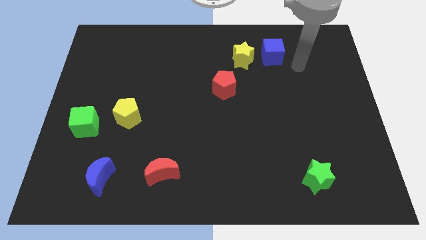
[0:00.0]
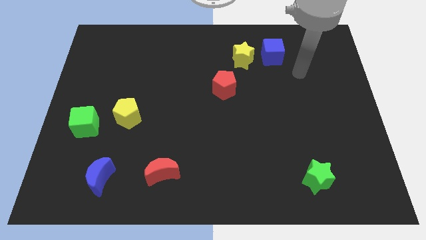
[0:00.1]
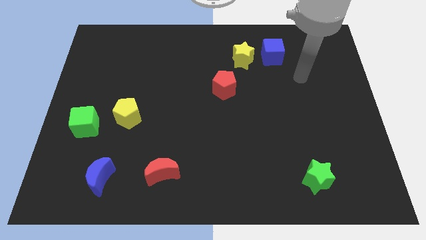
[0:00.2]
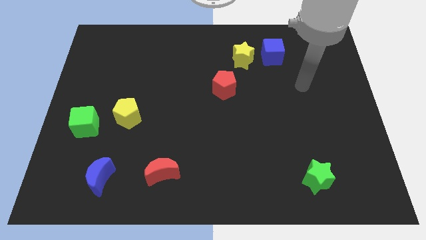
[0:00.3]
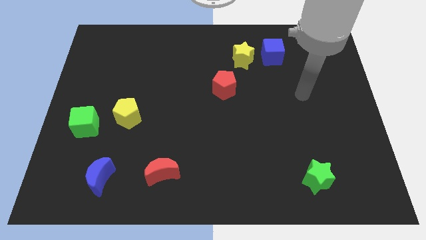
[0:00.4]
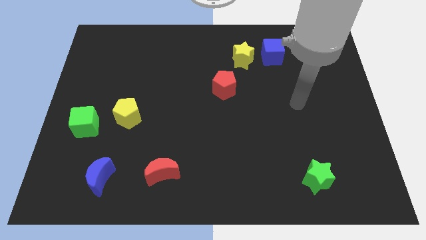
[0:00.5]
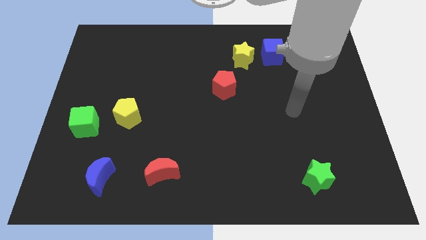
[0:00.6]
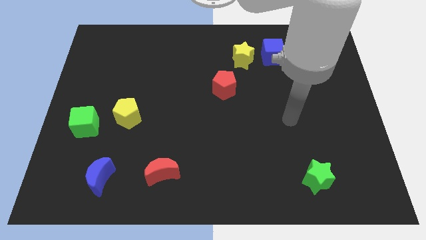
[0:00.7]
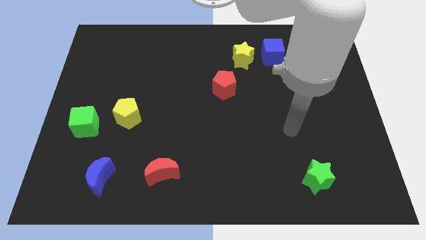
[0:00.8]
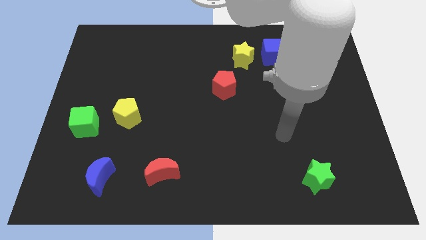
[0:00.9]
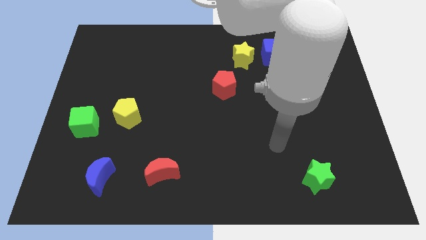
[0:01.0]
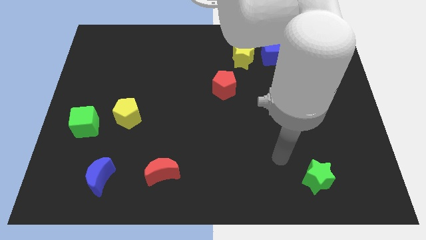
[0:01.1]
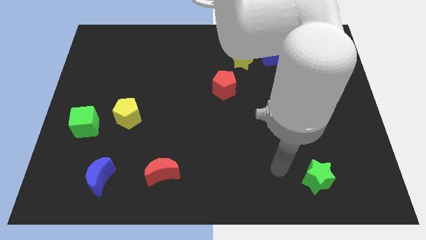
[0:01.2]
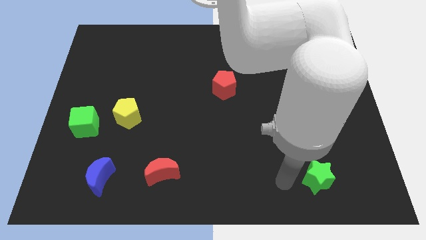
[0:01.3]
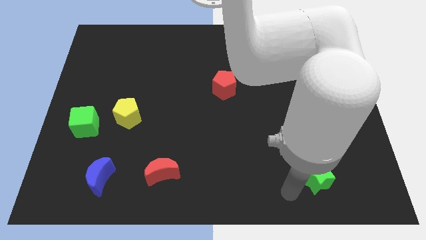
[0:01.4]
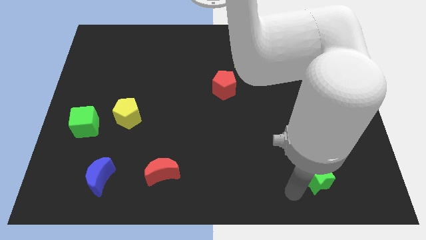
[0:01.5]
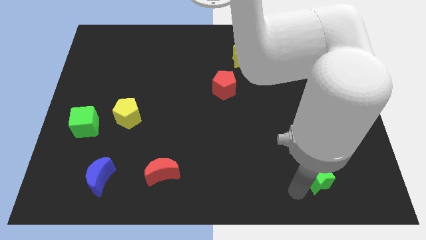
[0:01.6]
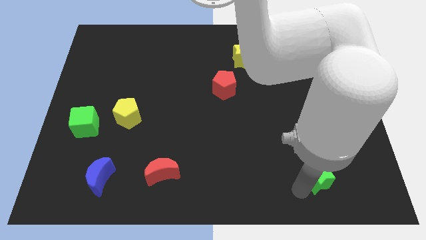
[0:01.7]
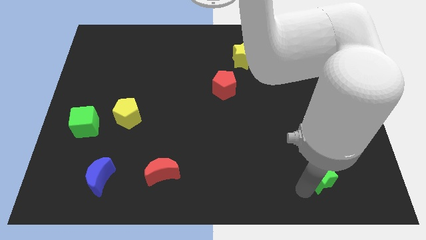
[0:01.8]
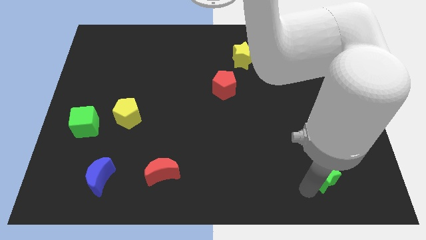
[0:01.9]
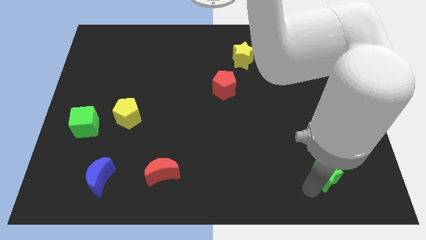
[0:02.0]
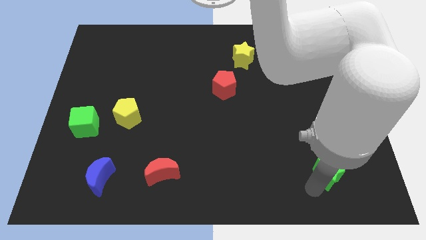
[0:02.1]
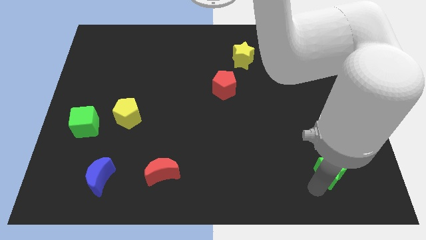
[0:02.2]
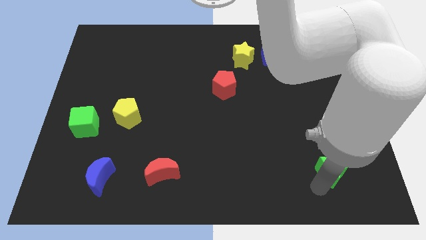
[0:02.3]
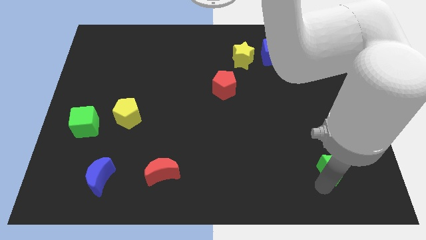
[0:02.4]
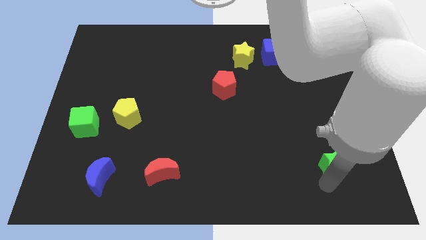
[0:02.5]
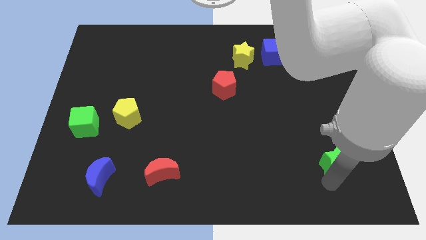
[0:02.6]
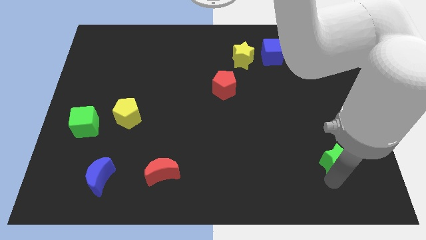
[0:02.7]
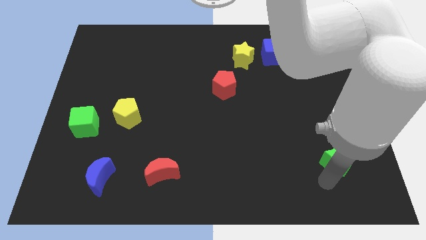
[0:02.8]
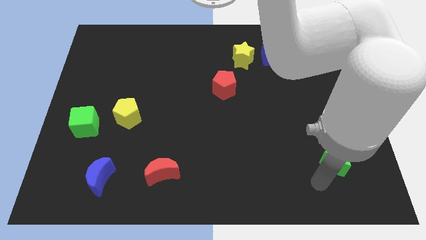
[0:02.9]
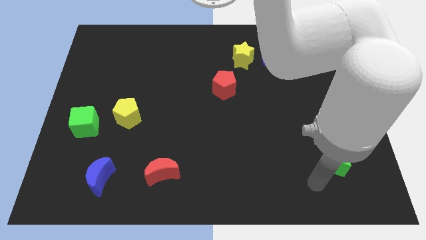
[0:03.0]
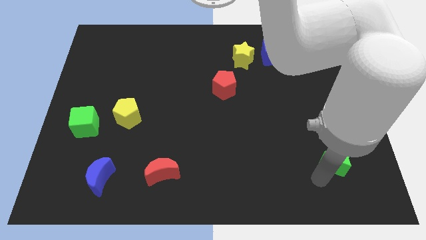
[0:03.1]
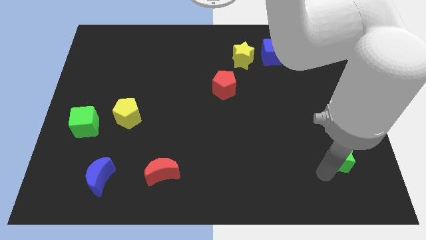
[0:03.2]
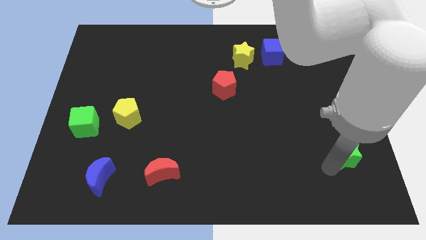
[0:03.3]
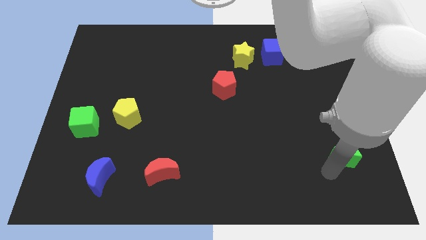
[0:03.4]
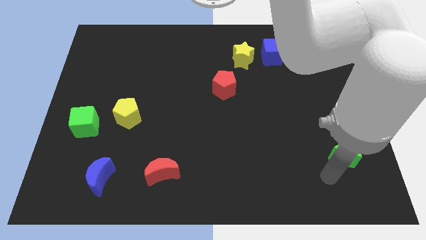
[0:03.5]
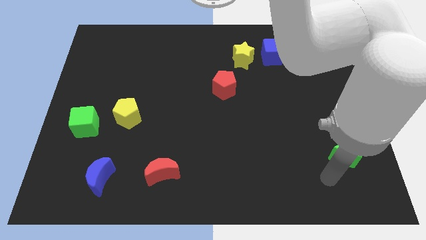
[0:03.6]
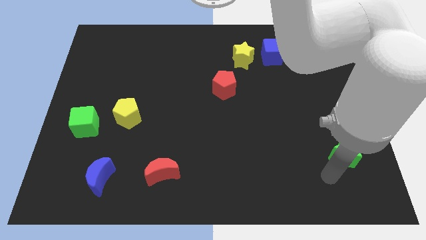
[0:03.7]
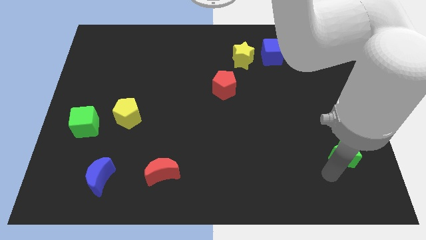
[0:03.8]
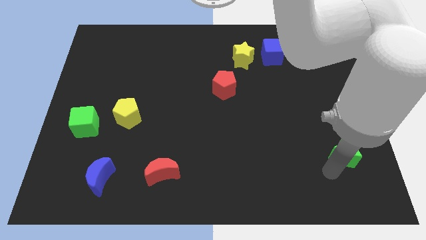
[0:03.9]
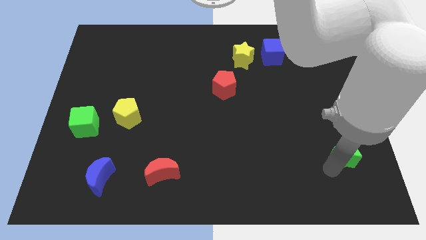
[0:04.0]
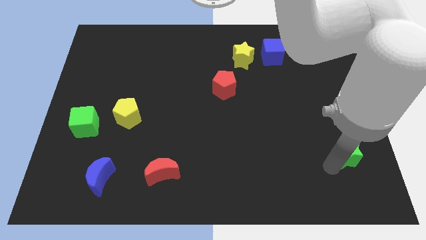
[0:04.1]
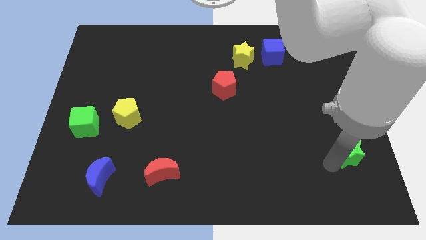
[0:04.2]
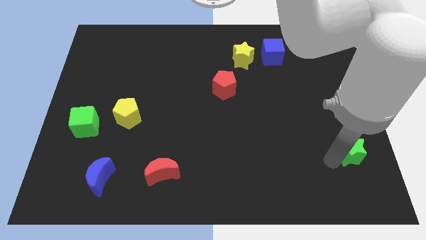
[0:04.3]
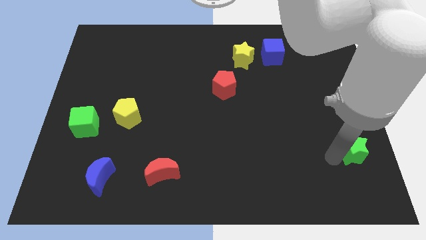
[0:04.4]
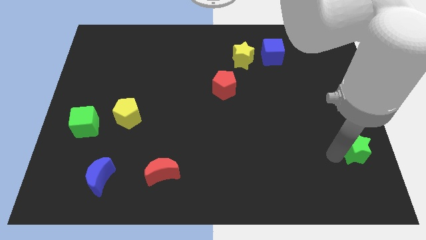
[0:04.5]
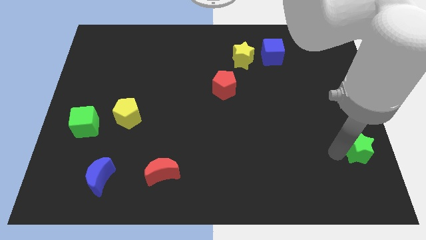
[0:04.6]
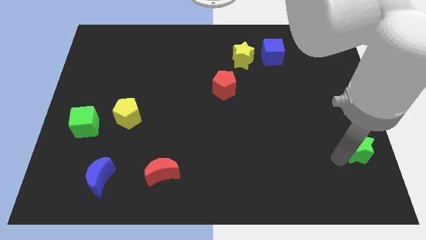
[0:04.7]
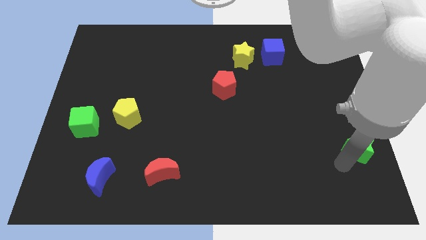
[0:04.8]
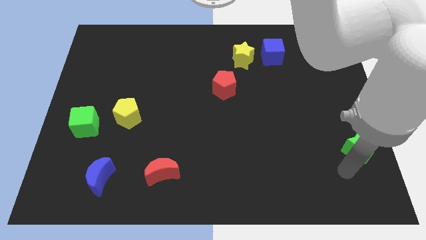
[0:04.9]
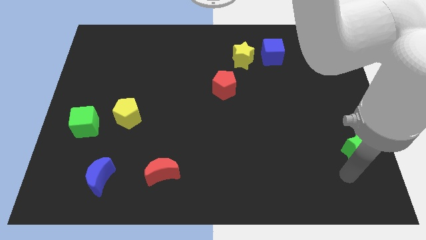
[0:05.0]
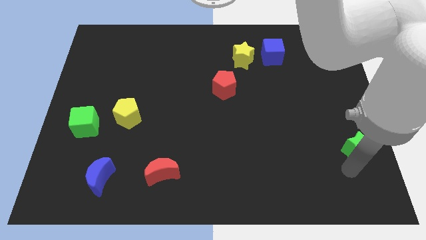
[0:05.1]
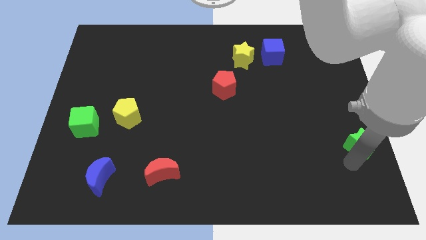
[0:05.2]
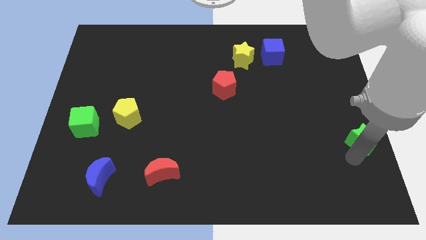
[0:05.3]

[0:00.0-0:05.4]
push the green star to the center right

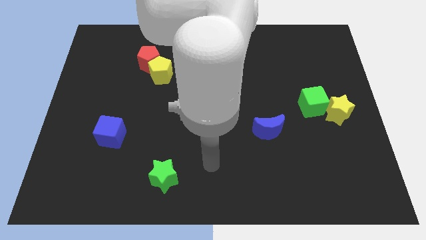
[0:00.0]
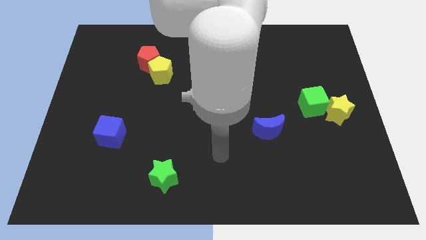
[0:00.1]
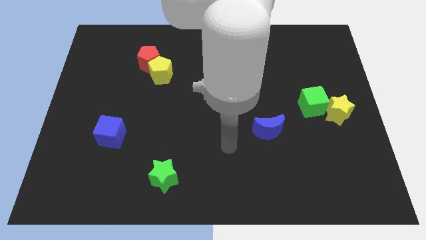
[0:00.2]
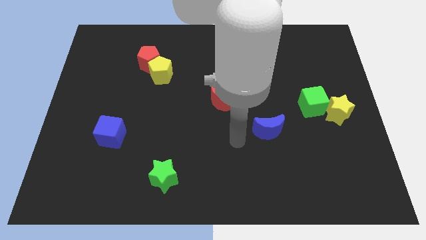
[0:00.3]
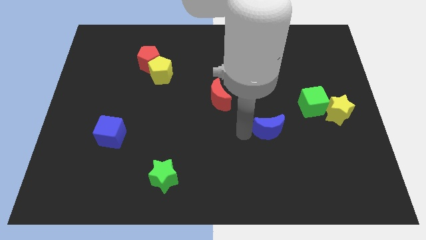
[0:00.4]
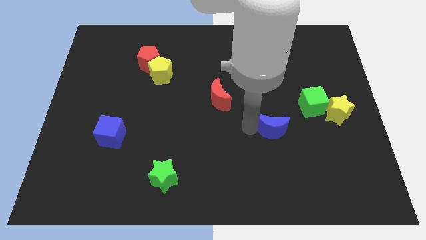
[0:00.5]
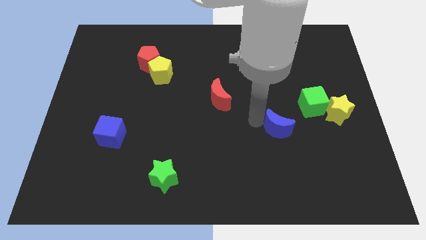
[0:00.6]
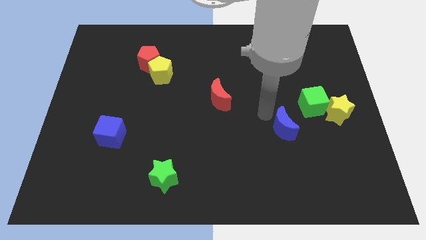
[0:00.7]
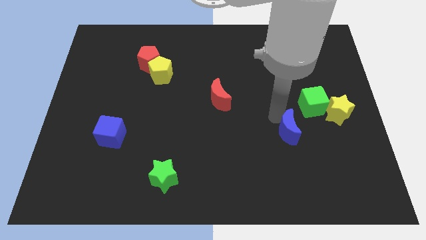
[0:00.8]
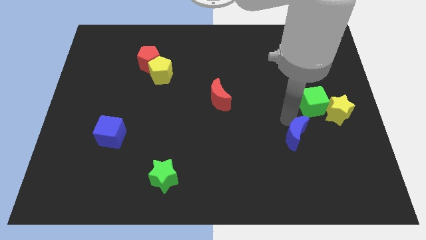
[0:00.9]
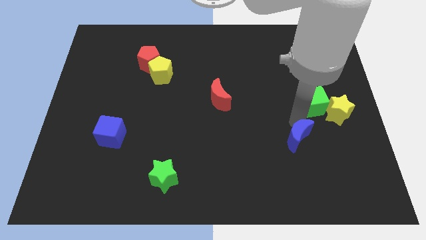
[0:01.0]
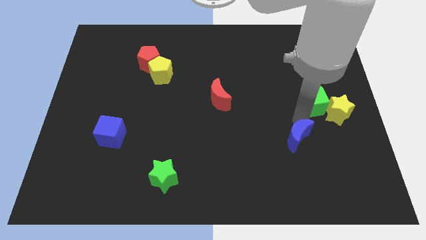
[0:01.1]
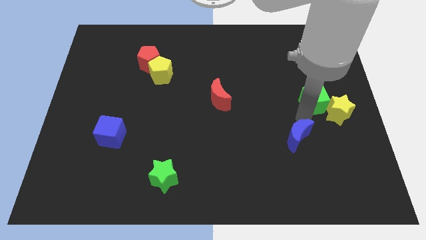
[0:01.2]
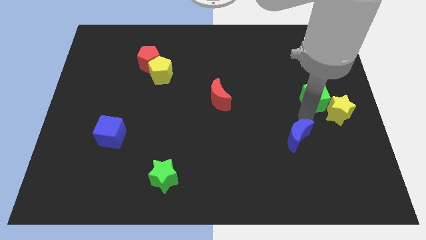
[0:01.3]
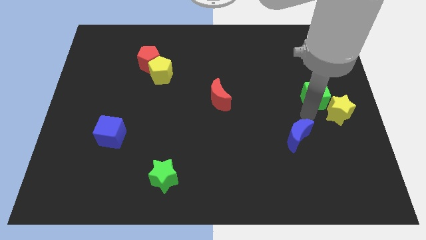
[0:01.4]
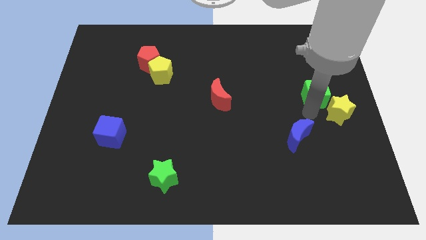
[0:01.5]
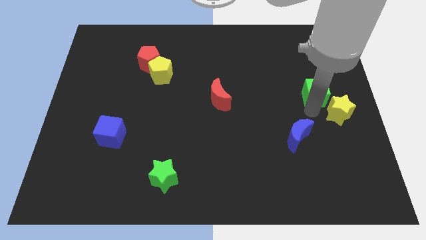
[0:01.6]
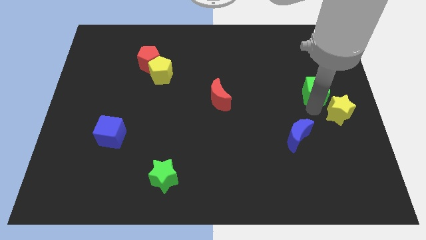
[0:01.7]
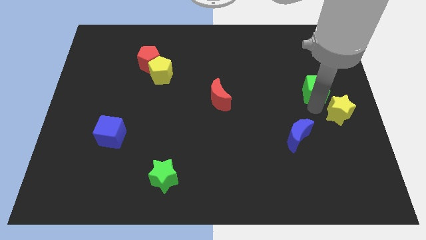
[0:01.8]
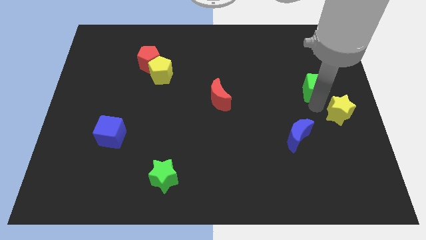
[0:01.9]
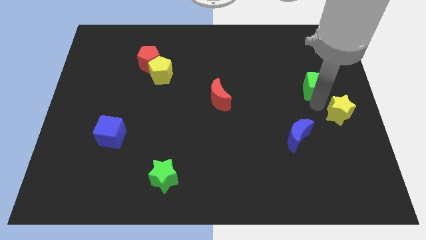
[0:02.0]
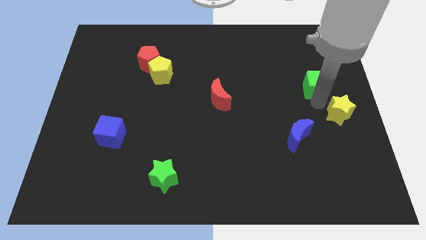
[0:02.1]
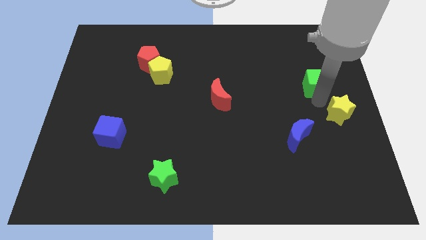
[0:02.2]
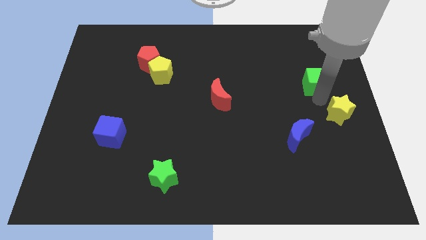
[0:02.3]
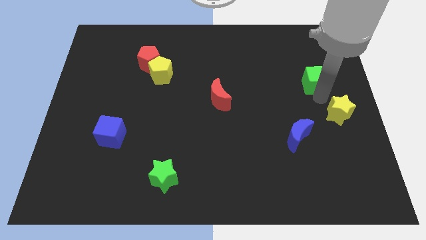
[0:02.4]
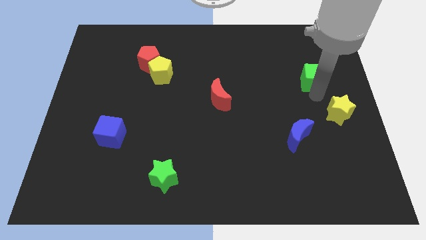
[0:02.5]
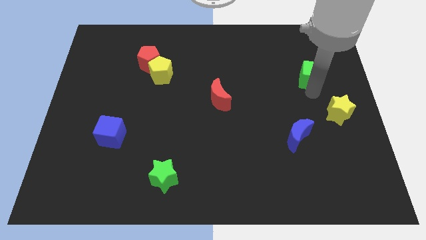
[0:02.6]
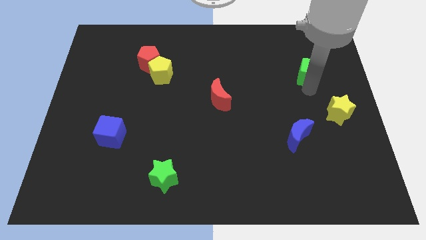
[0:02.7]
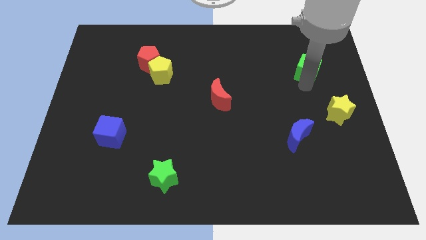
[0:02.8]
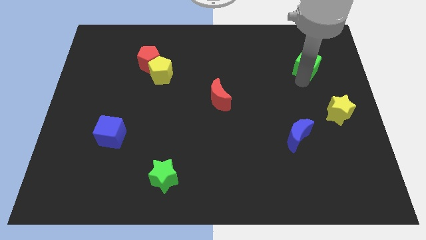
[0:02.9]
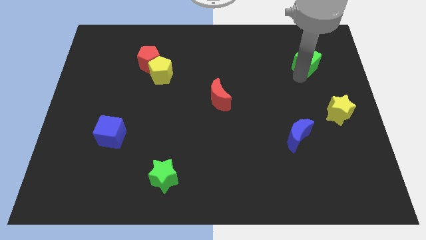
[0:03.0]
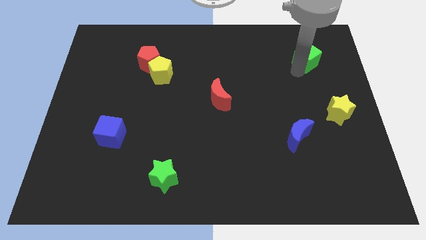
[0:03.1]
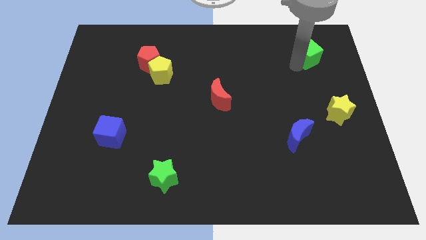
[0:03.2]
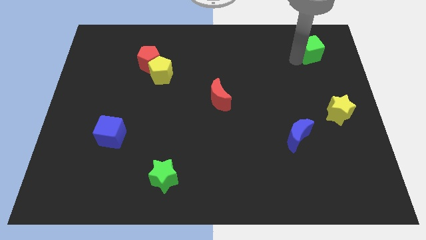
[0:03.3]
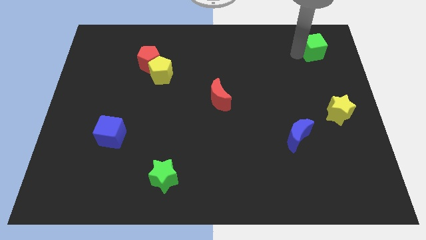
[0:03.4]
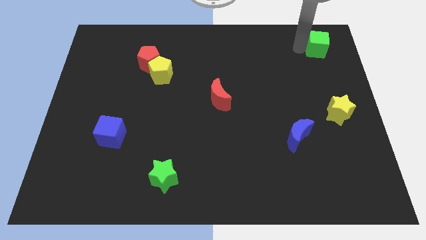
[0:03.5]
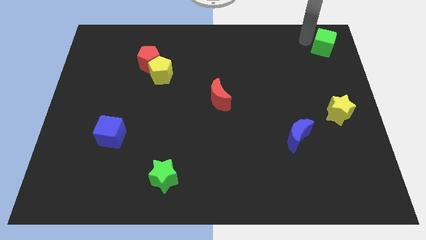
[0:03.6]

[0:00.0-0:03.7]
push the green cube to the top right
